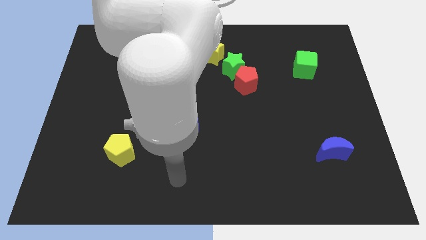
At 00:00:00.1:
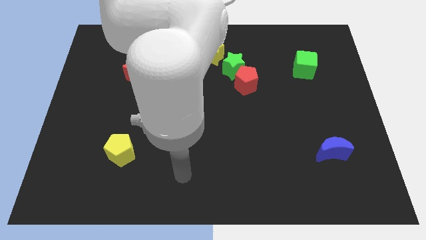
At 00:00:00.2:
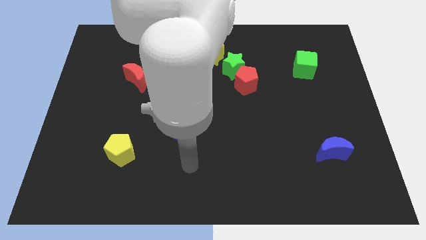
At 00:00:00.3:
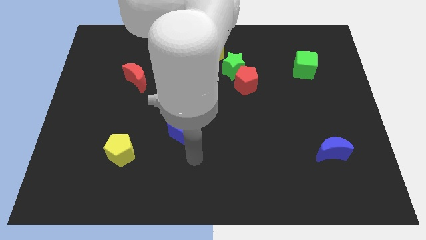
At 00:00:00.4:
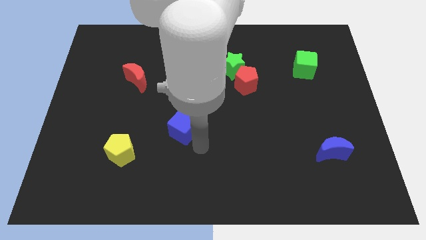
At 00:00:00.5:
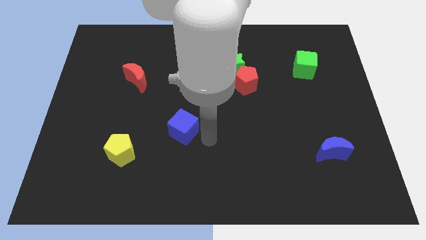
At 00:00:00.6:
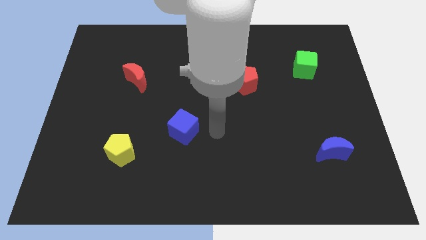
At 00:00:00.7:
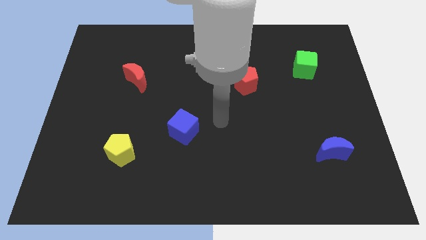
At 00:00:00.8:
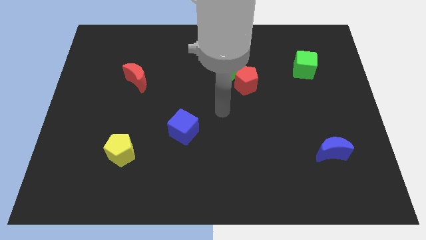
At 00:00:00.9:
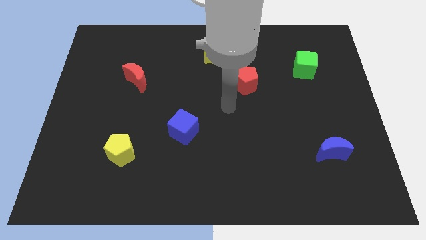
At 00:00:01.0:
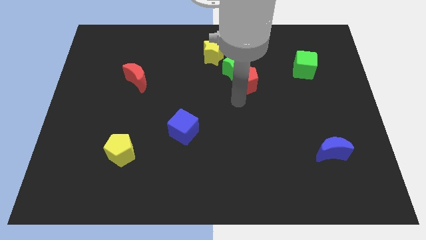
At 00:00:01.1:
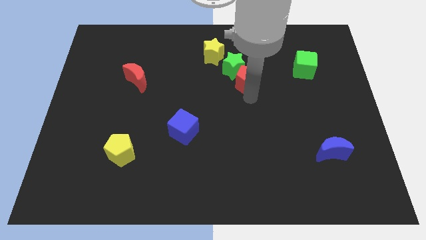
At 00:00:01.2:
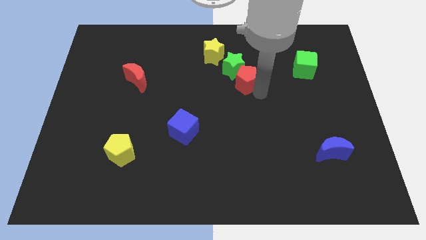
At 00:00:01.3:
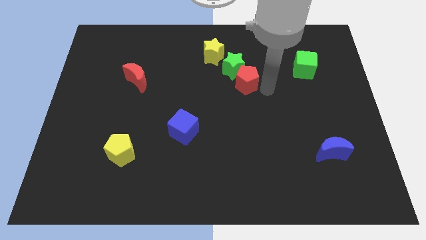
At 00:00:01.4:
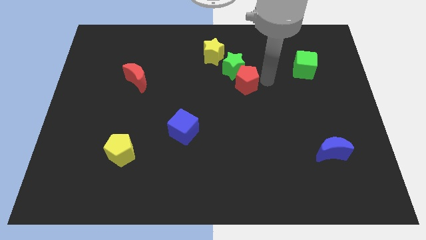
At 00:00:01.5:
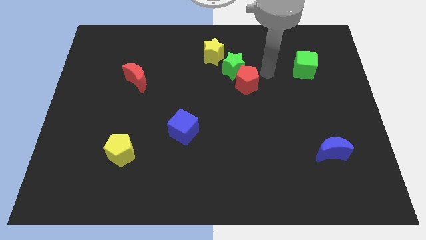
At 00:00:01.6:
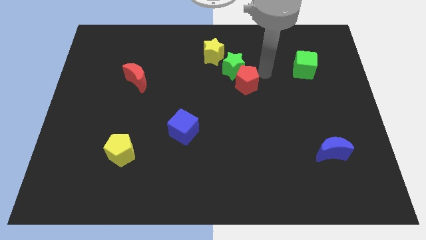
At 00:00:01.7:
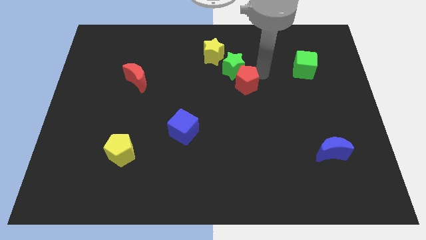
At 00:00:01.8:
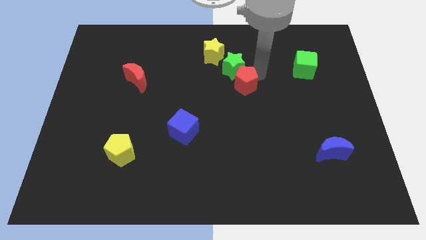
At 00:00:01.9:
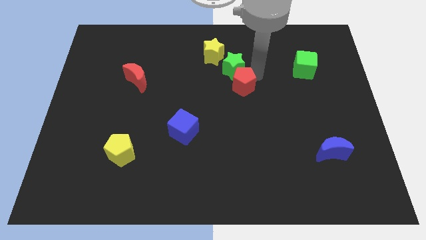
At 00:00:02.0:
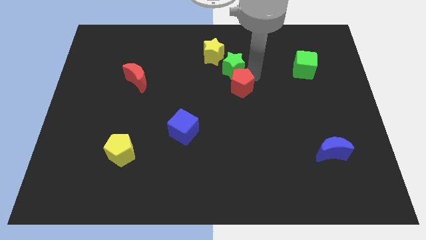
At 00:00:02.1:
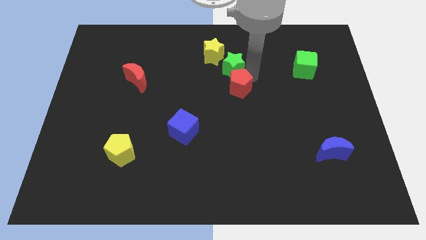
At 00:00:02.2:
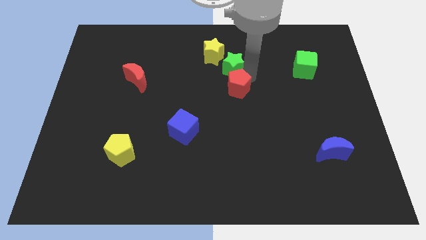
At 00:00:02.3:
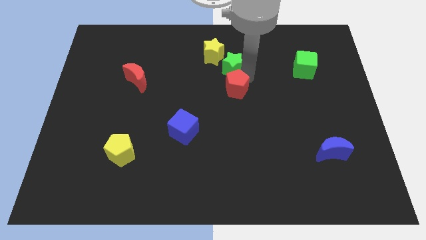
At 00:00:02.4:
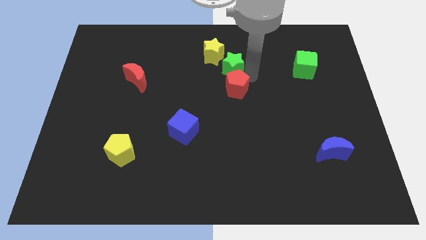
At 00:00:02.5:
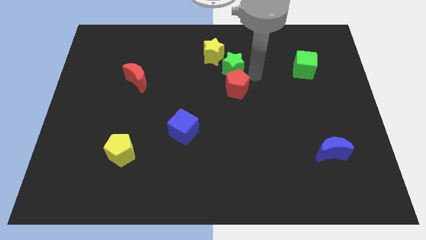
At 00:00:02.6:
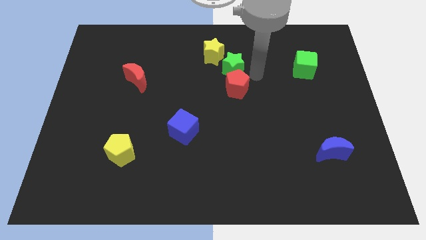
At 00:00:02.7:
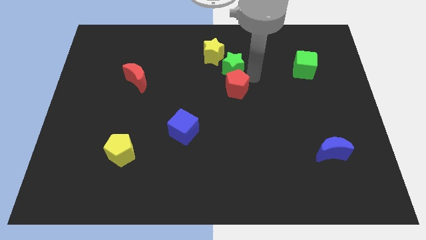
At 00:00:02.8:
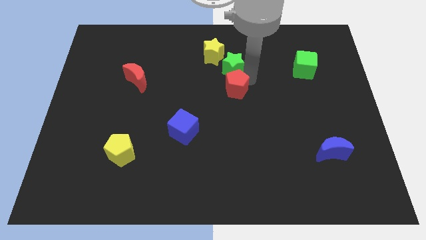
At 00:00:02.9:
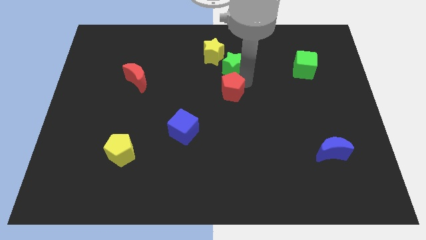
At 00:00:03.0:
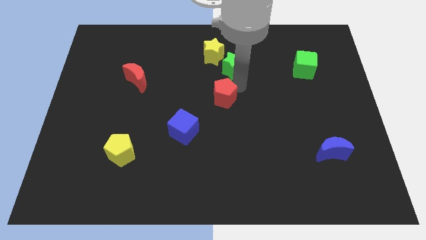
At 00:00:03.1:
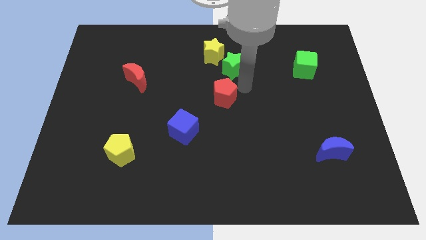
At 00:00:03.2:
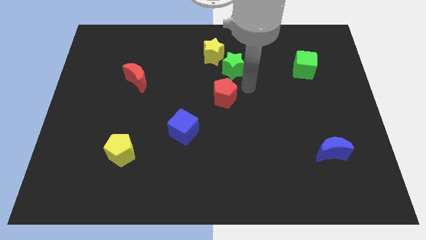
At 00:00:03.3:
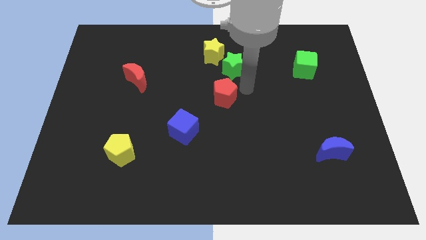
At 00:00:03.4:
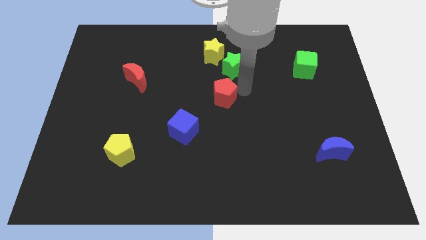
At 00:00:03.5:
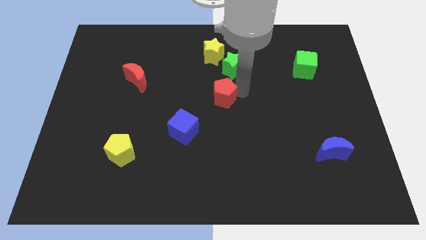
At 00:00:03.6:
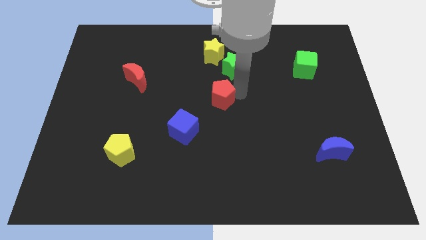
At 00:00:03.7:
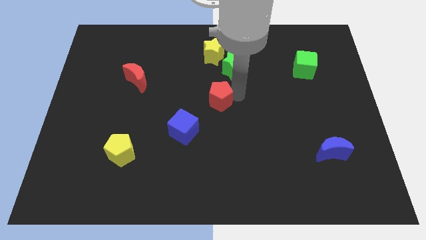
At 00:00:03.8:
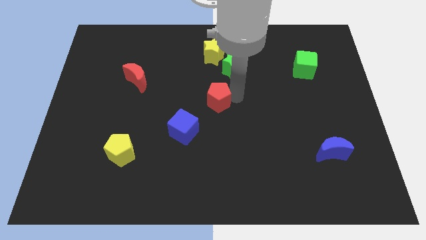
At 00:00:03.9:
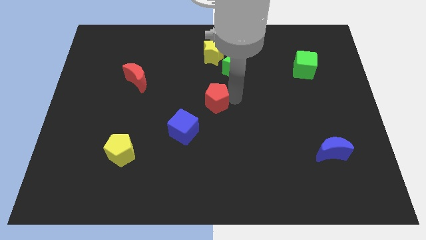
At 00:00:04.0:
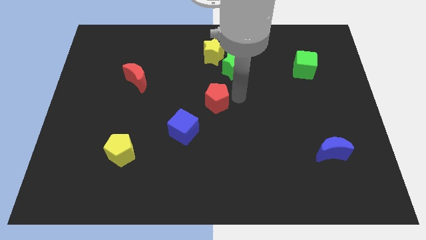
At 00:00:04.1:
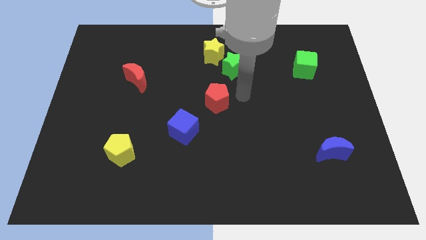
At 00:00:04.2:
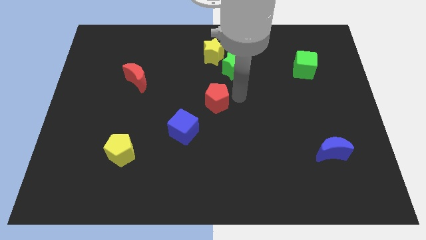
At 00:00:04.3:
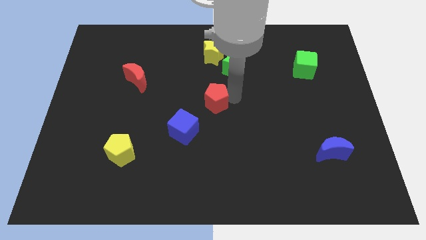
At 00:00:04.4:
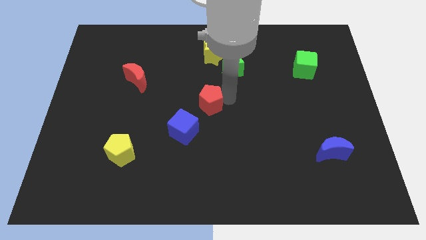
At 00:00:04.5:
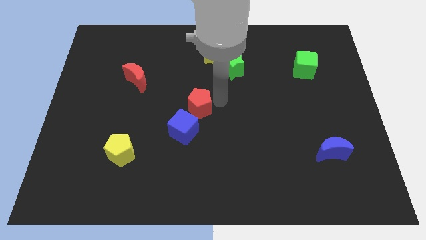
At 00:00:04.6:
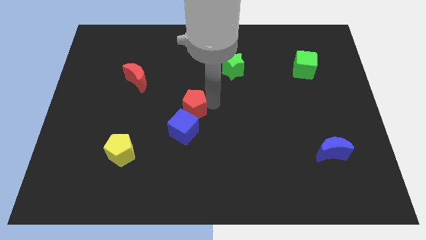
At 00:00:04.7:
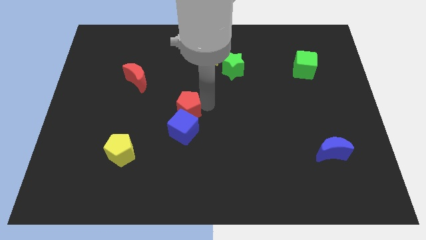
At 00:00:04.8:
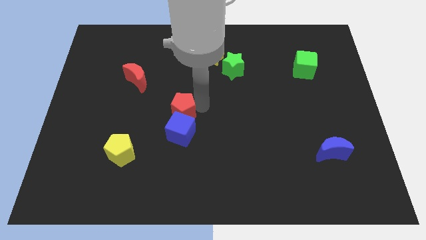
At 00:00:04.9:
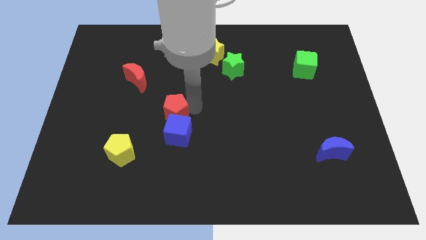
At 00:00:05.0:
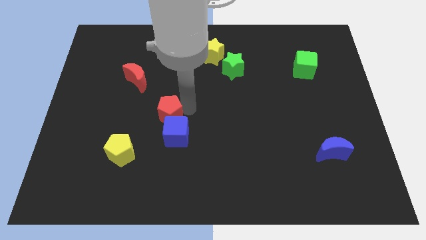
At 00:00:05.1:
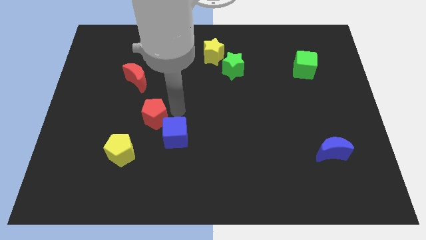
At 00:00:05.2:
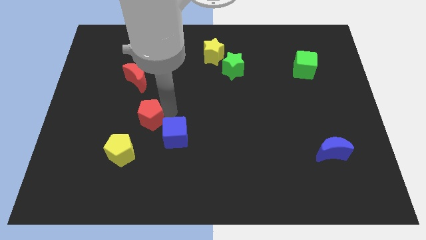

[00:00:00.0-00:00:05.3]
move the red pentagon to the left of the blue cube
